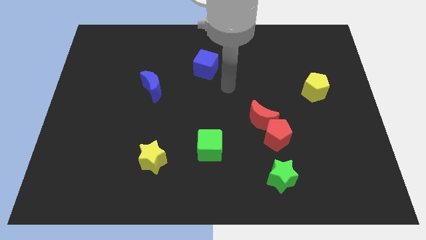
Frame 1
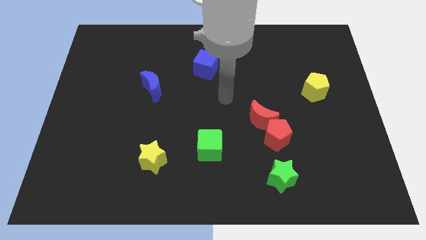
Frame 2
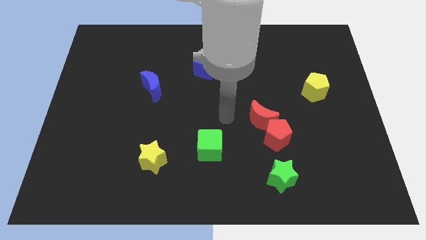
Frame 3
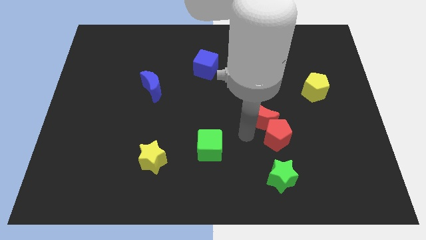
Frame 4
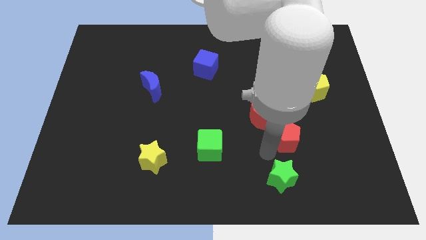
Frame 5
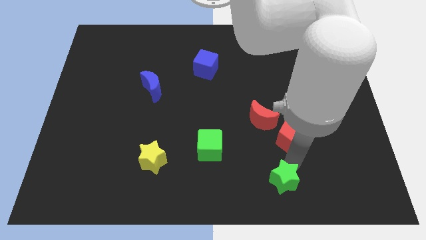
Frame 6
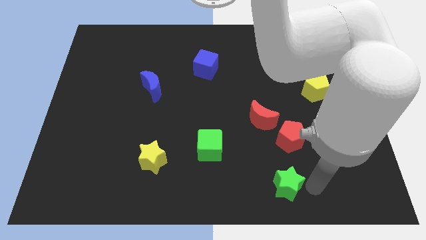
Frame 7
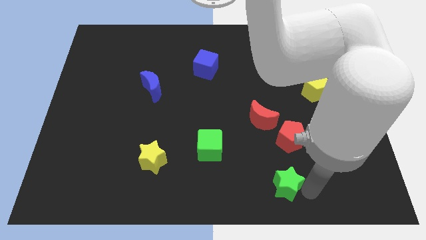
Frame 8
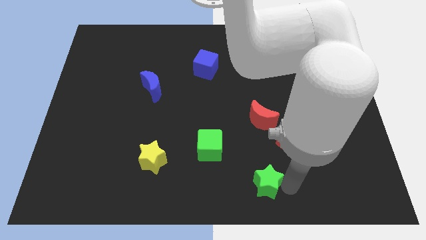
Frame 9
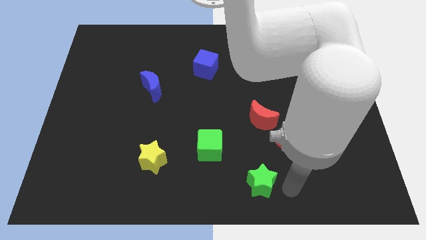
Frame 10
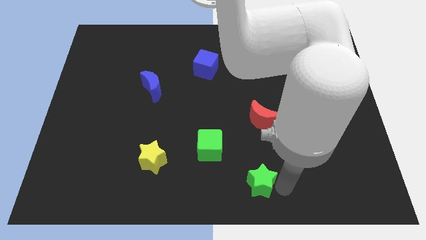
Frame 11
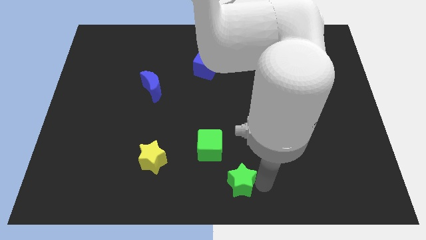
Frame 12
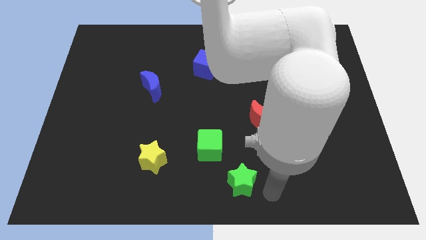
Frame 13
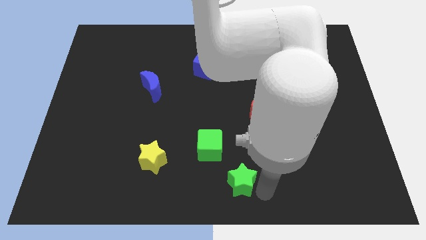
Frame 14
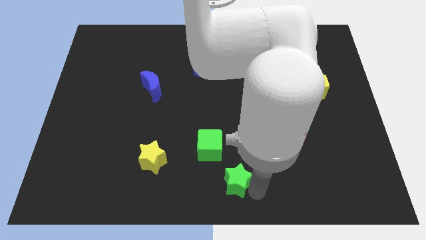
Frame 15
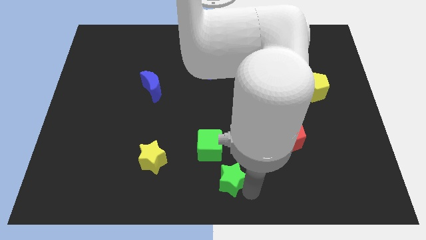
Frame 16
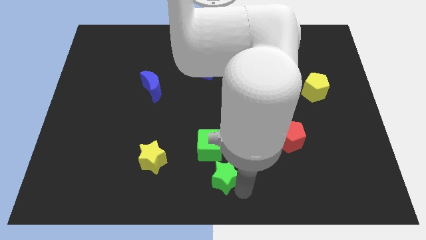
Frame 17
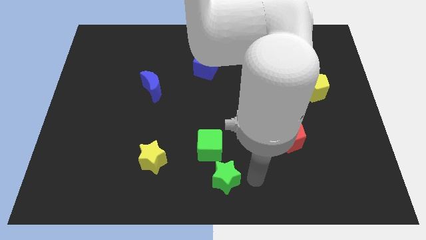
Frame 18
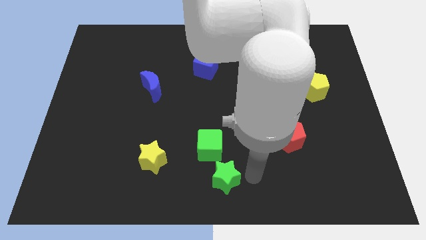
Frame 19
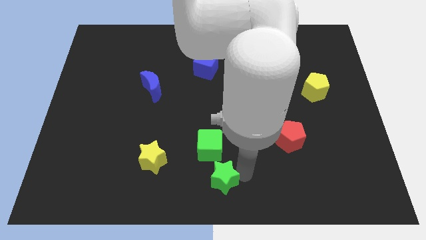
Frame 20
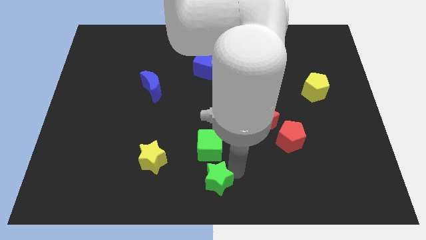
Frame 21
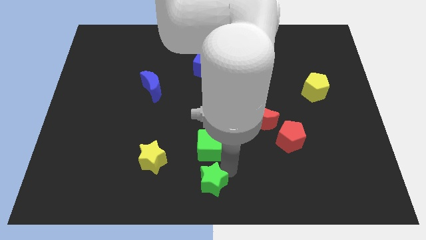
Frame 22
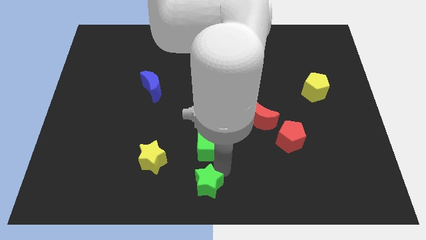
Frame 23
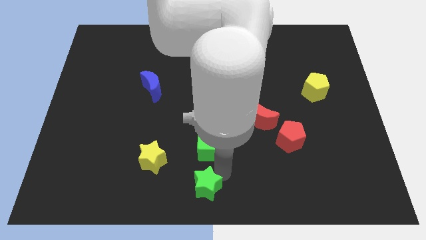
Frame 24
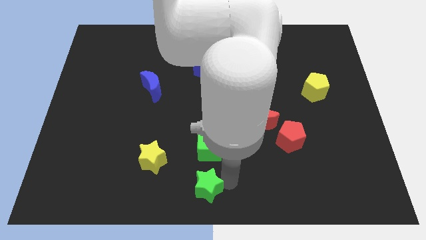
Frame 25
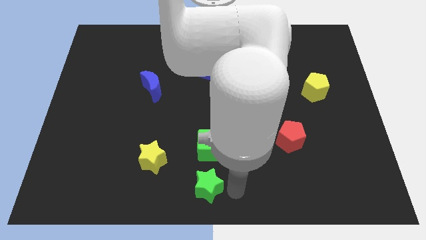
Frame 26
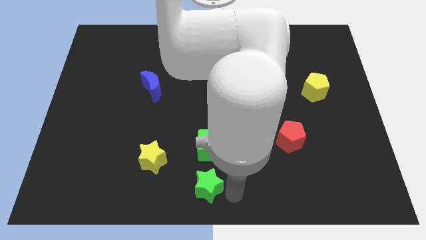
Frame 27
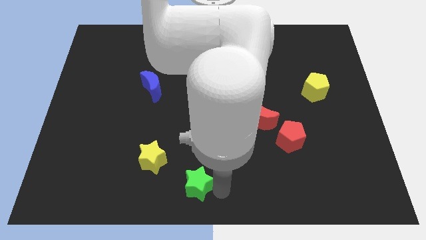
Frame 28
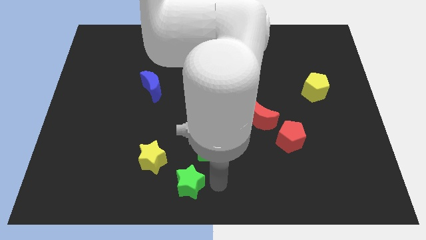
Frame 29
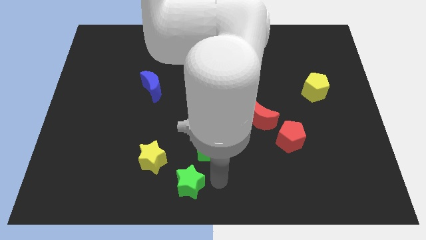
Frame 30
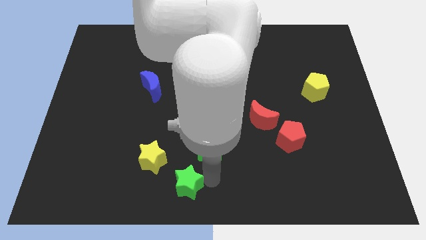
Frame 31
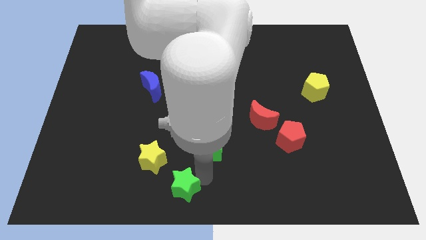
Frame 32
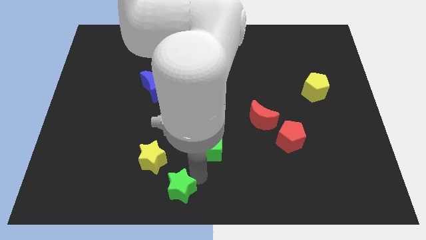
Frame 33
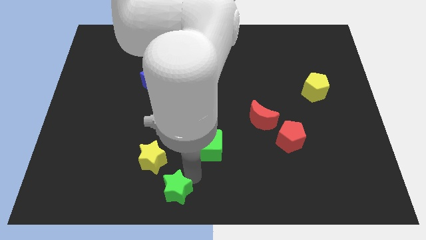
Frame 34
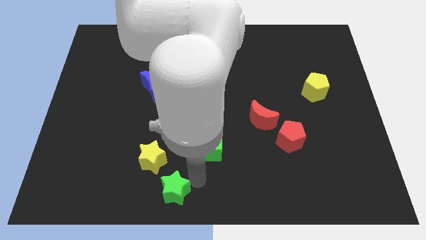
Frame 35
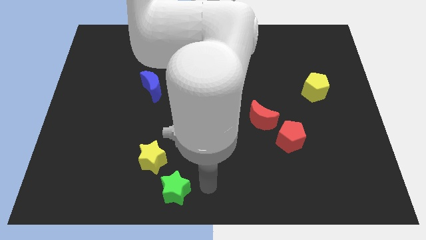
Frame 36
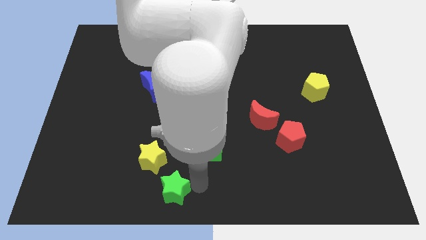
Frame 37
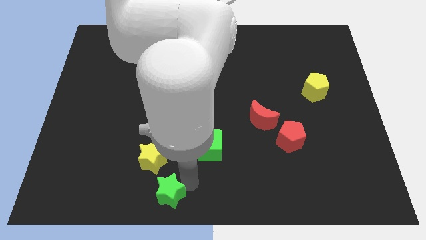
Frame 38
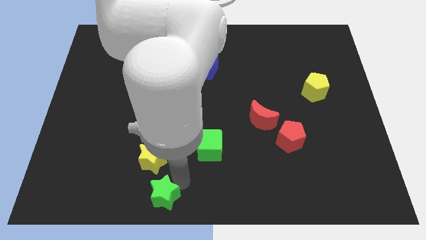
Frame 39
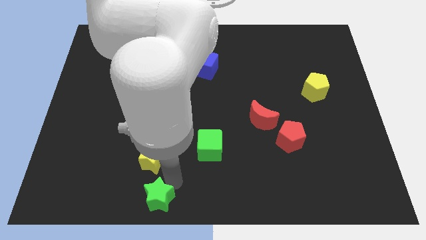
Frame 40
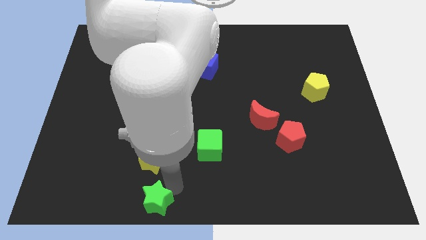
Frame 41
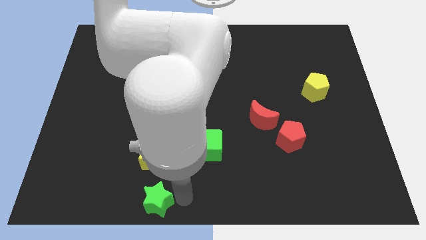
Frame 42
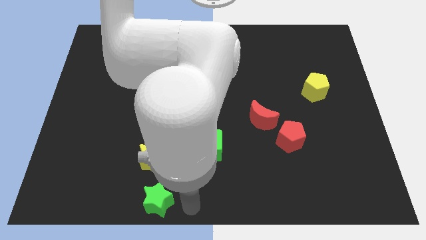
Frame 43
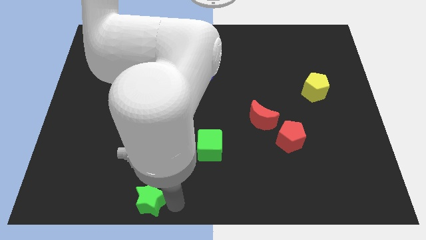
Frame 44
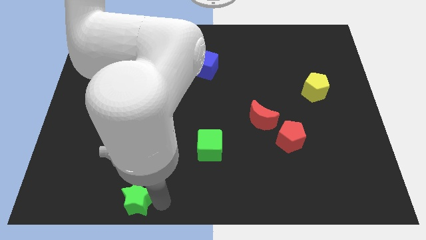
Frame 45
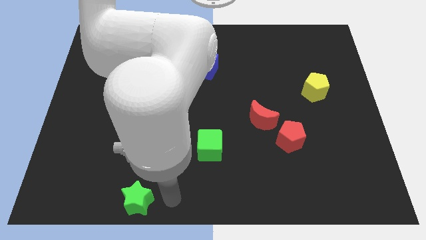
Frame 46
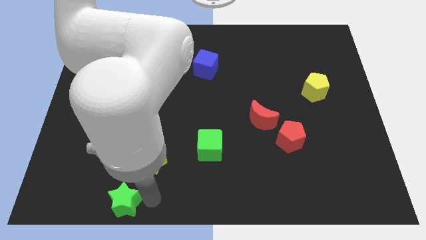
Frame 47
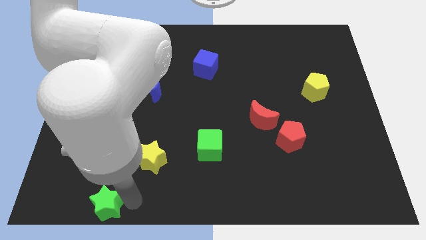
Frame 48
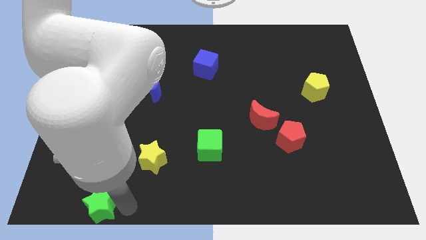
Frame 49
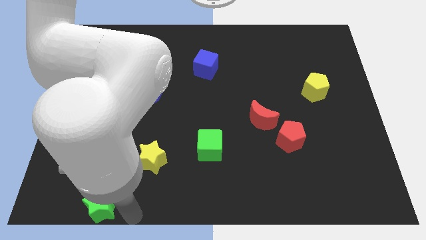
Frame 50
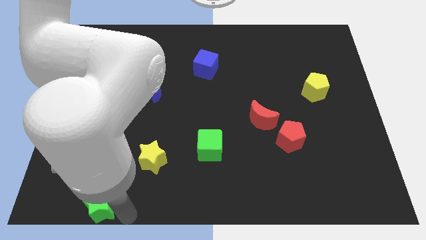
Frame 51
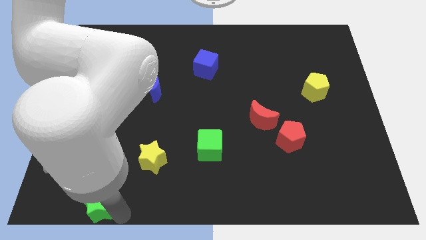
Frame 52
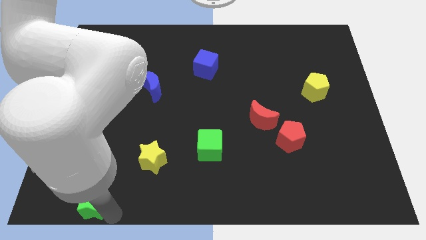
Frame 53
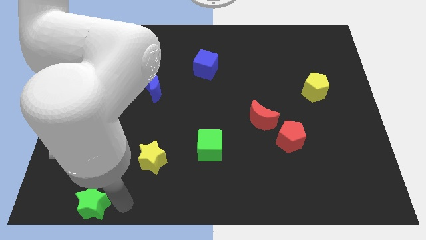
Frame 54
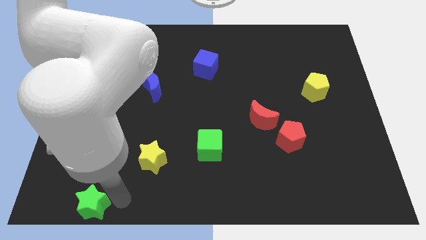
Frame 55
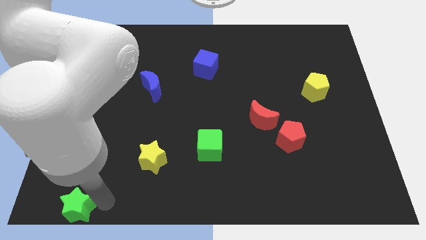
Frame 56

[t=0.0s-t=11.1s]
move the green star to the lower left corner

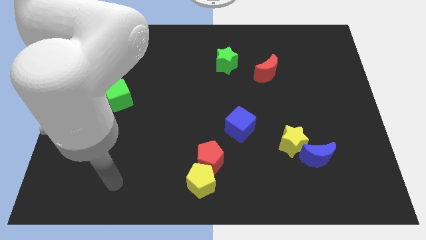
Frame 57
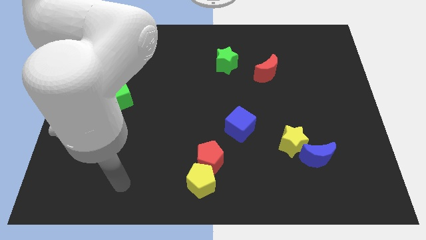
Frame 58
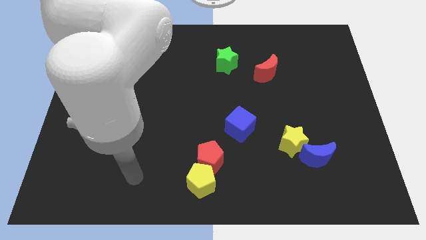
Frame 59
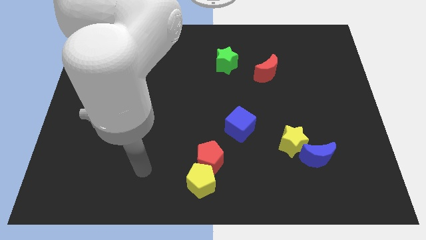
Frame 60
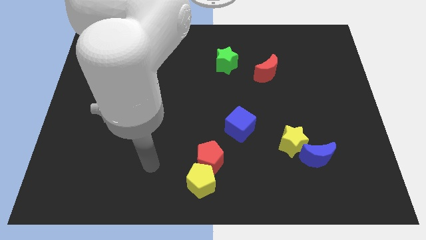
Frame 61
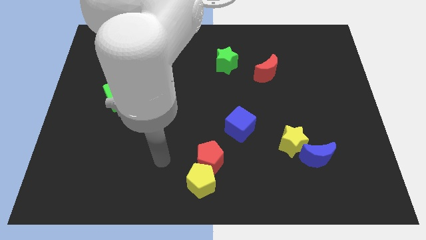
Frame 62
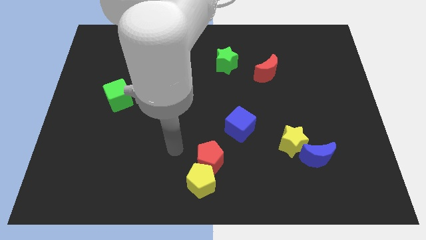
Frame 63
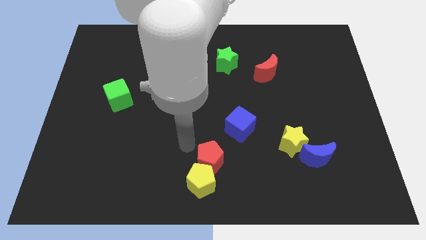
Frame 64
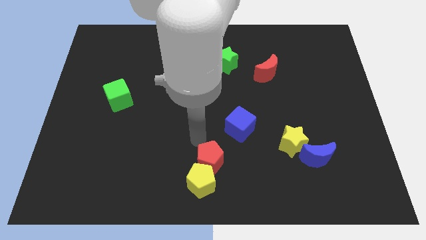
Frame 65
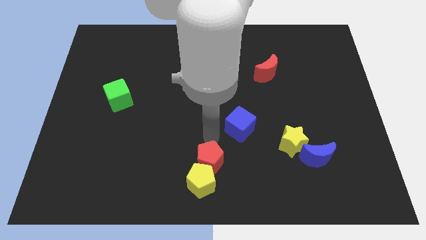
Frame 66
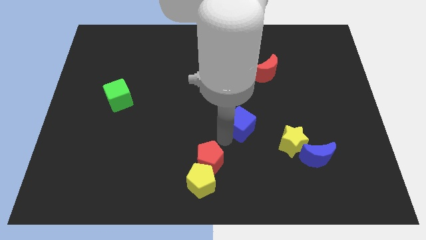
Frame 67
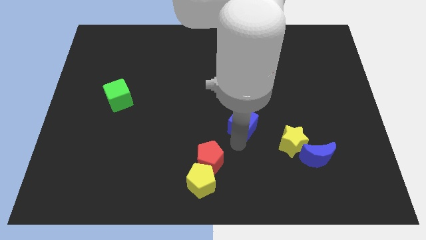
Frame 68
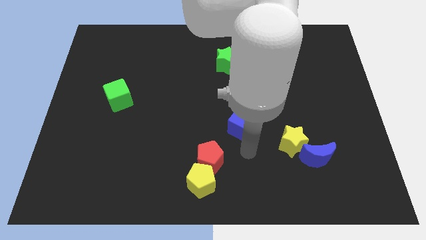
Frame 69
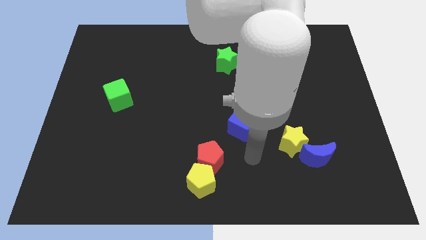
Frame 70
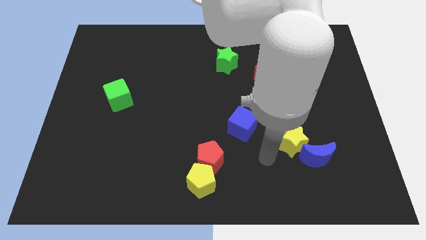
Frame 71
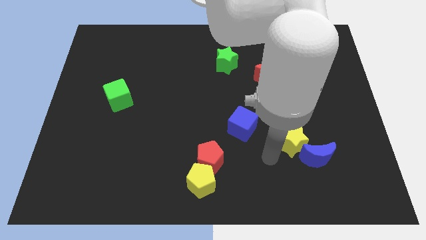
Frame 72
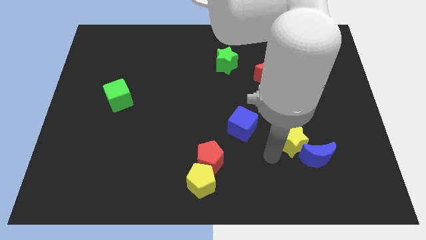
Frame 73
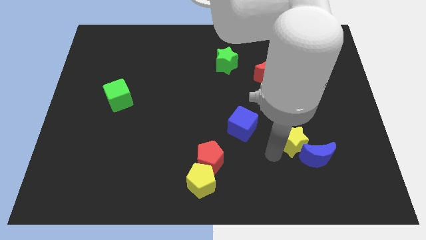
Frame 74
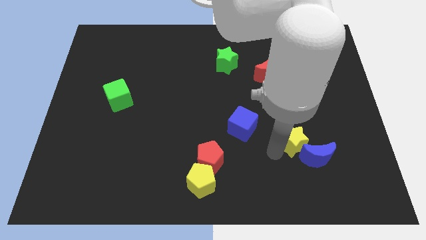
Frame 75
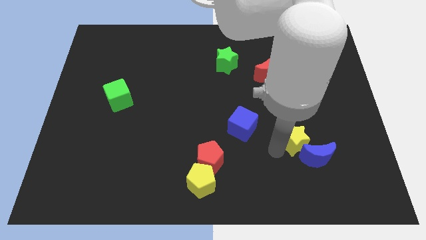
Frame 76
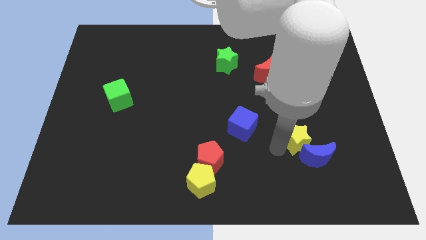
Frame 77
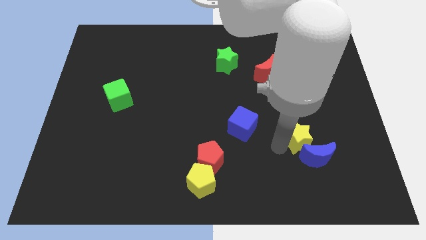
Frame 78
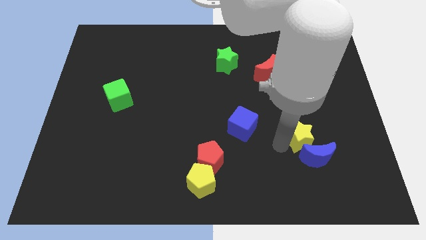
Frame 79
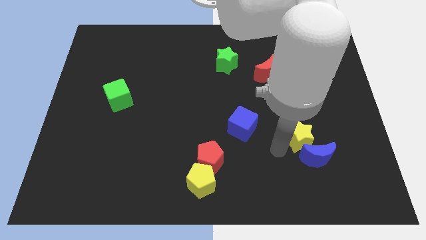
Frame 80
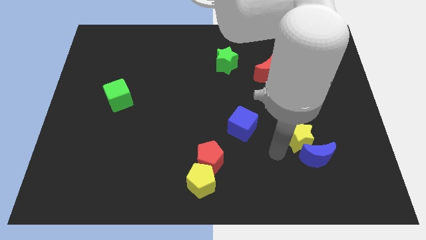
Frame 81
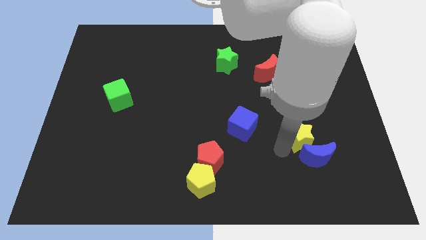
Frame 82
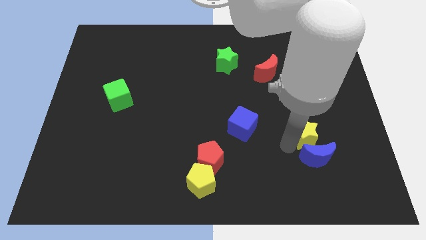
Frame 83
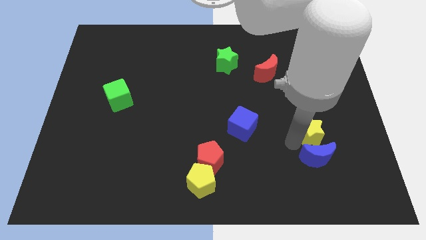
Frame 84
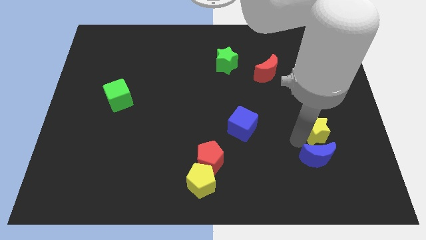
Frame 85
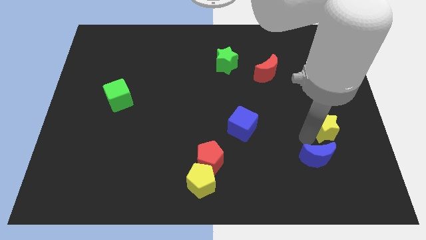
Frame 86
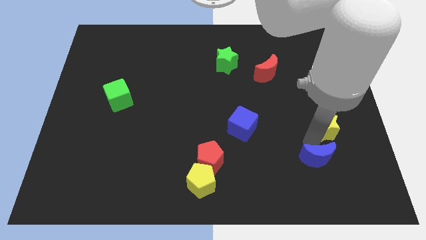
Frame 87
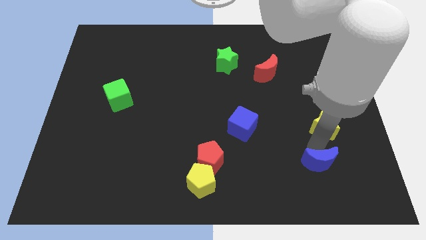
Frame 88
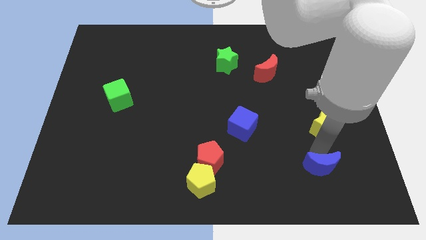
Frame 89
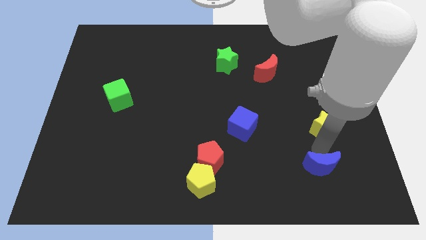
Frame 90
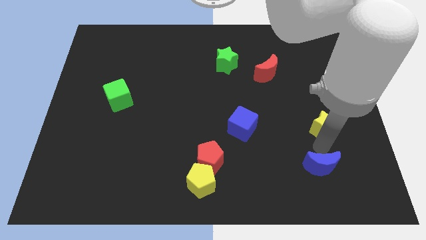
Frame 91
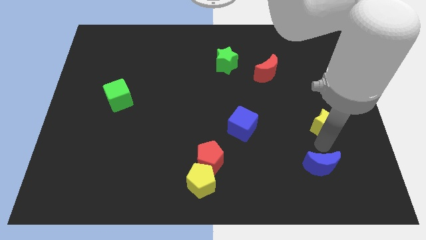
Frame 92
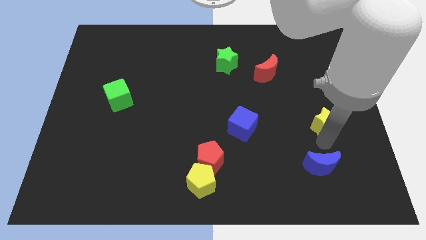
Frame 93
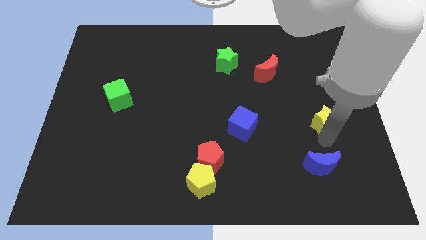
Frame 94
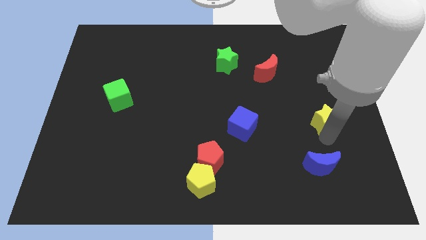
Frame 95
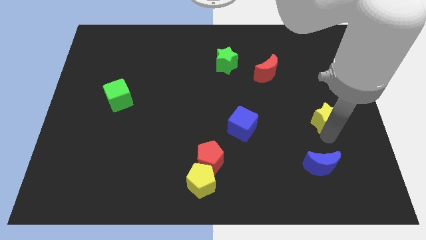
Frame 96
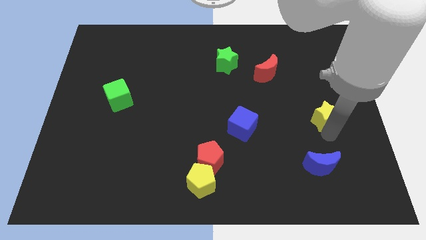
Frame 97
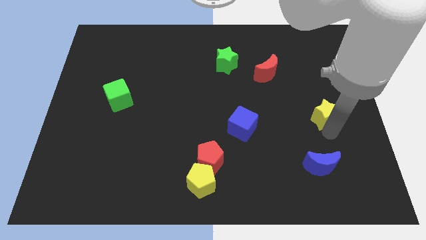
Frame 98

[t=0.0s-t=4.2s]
put the yellow star to the right side of the board
